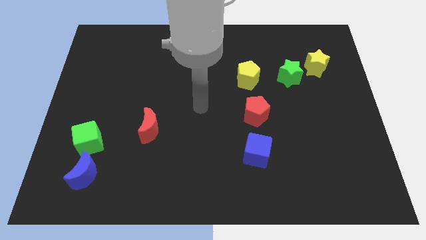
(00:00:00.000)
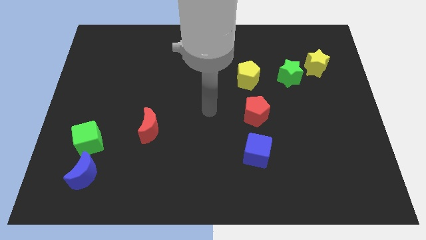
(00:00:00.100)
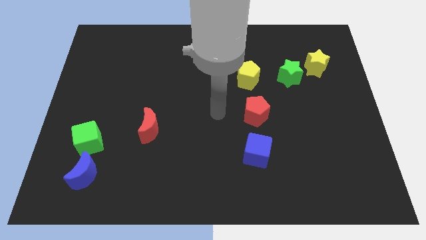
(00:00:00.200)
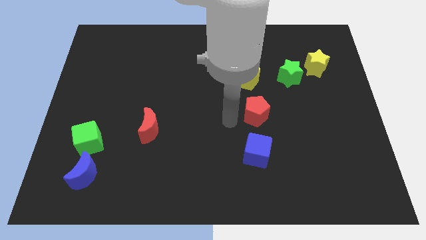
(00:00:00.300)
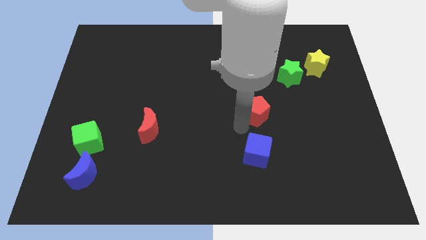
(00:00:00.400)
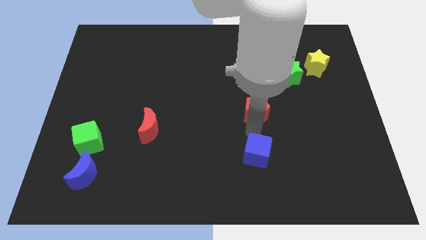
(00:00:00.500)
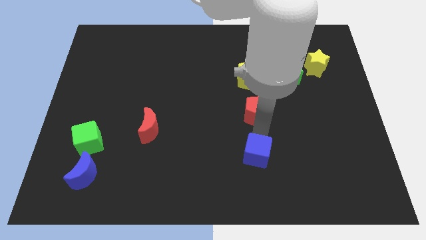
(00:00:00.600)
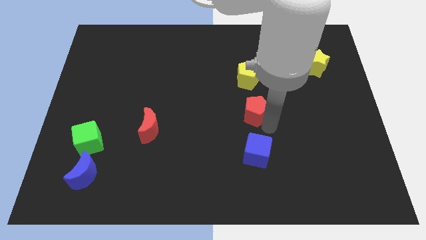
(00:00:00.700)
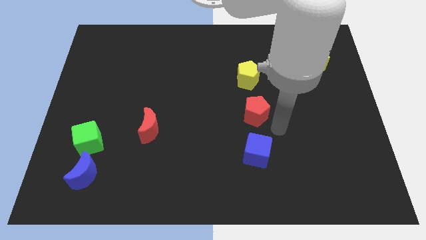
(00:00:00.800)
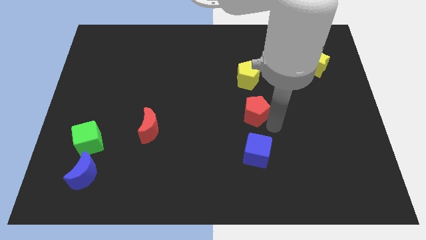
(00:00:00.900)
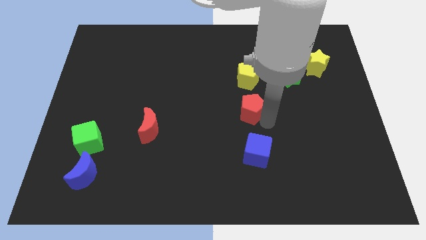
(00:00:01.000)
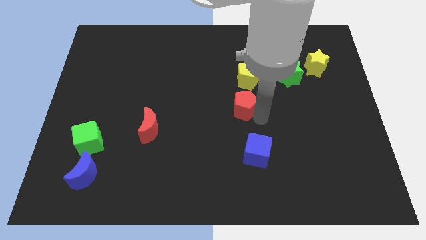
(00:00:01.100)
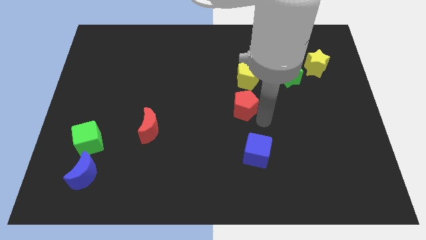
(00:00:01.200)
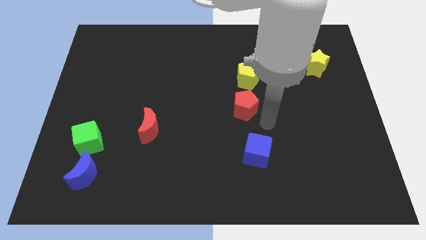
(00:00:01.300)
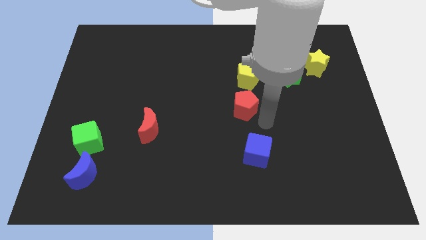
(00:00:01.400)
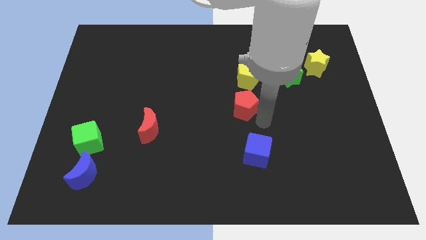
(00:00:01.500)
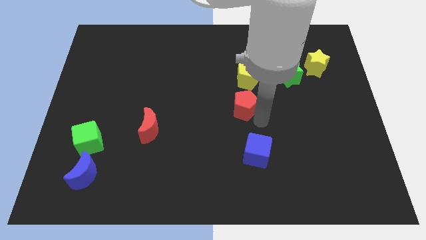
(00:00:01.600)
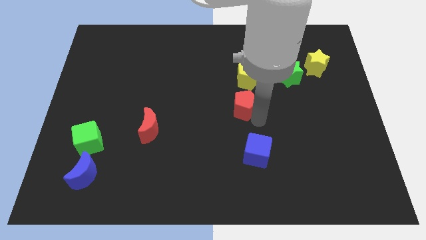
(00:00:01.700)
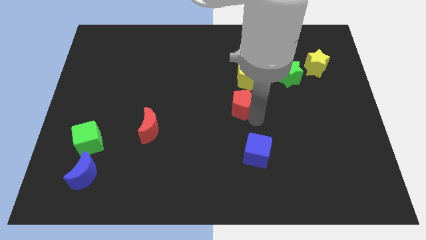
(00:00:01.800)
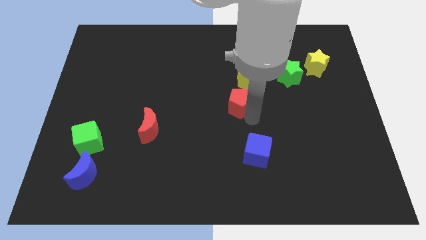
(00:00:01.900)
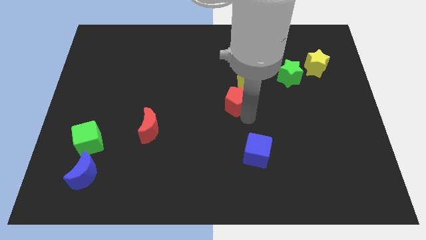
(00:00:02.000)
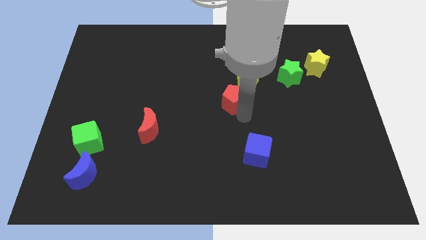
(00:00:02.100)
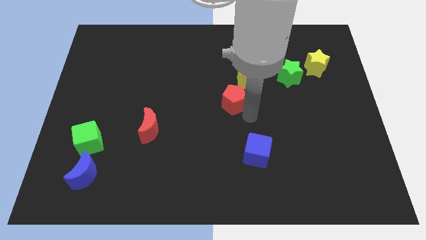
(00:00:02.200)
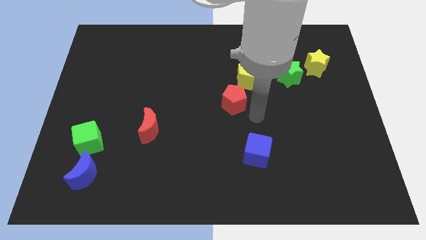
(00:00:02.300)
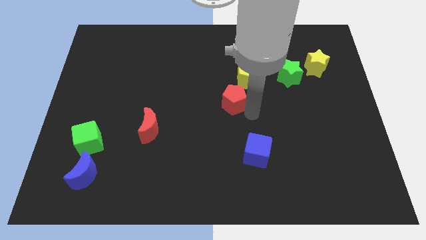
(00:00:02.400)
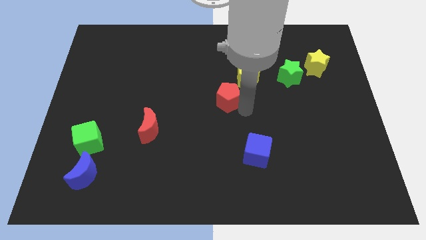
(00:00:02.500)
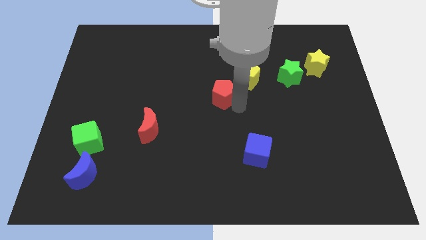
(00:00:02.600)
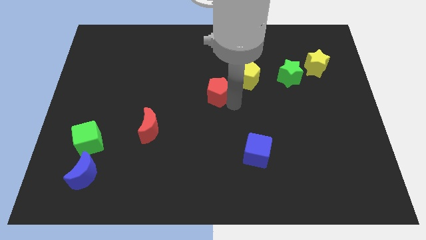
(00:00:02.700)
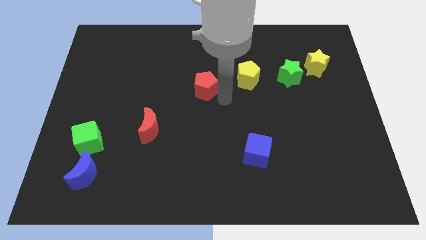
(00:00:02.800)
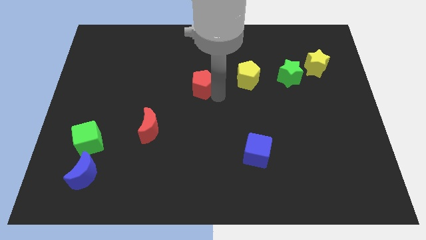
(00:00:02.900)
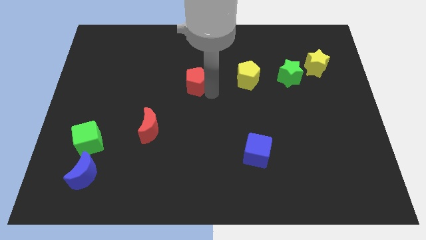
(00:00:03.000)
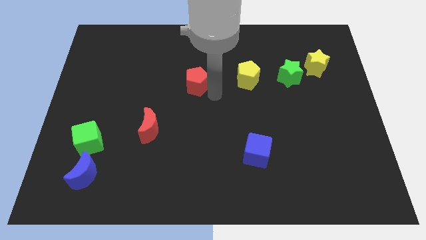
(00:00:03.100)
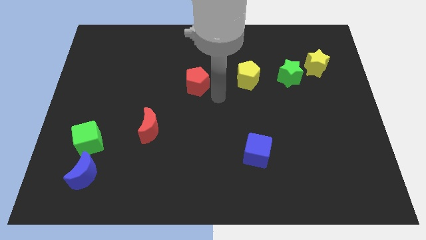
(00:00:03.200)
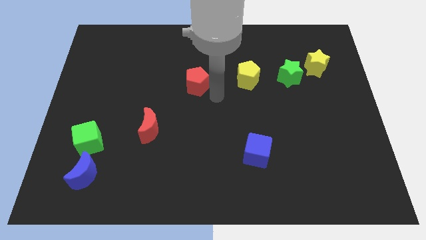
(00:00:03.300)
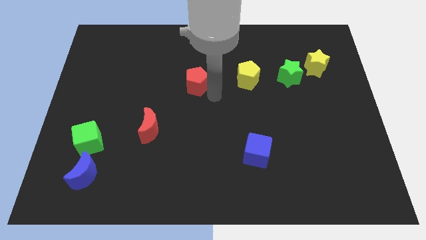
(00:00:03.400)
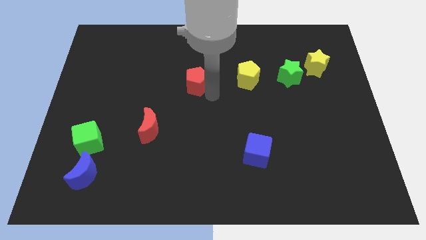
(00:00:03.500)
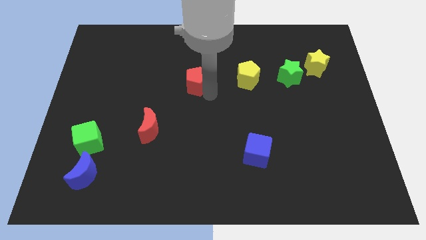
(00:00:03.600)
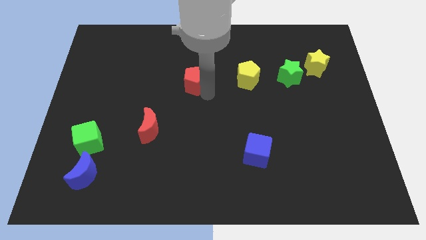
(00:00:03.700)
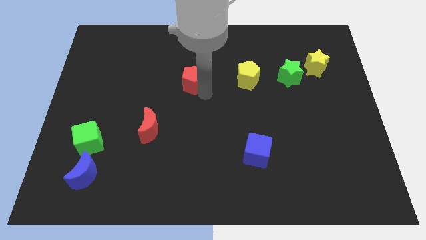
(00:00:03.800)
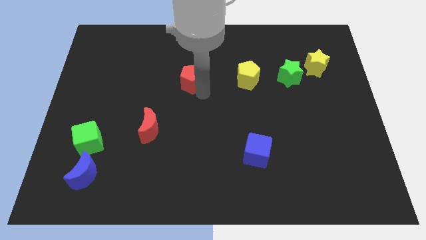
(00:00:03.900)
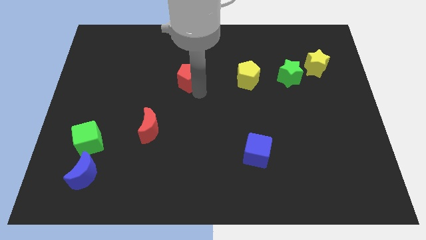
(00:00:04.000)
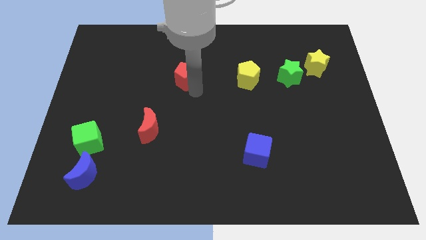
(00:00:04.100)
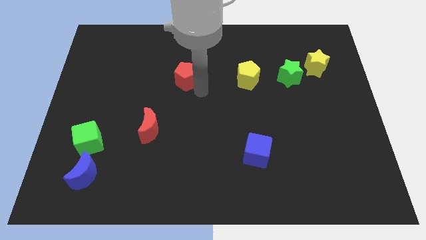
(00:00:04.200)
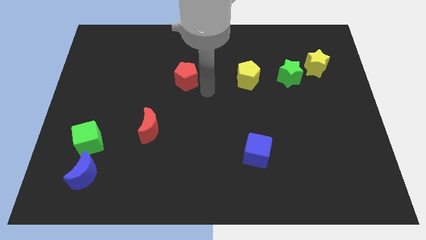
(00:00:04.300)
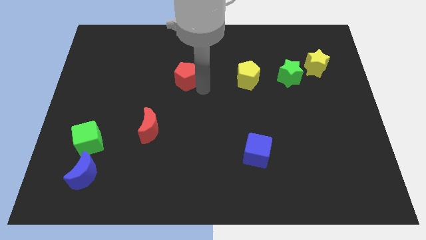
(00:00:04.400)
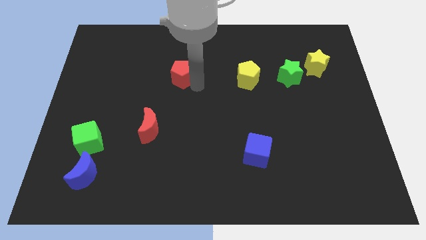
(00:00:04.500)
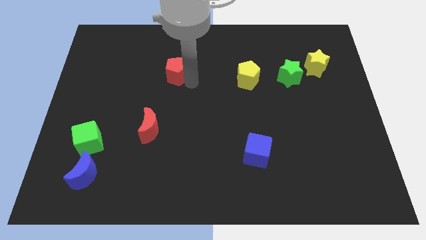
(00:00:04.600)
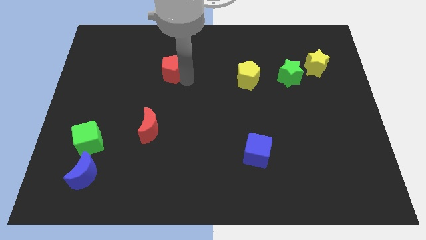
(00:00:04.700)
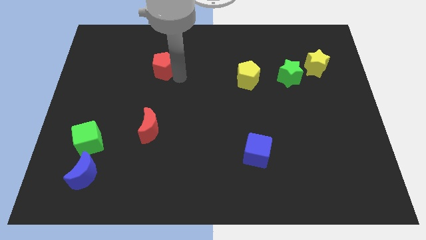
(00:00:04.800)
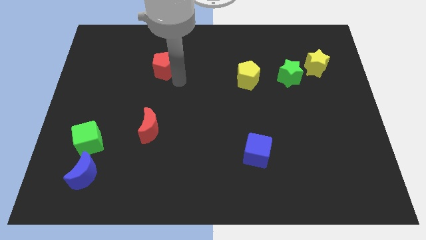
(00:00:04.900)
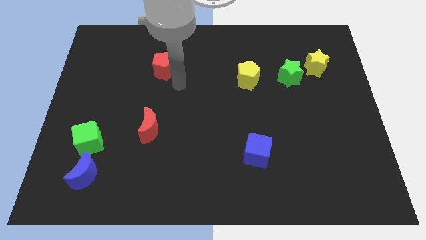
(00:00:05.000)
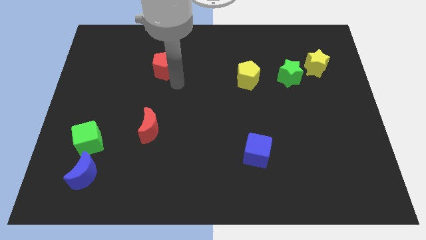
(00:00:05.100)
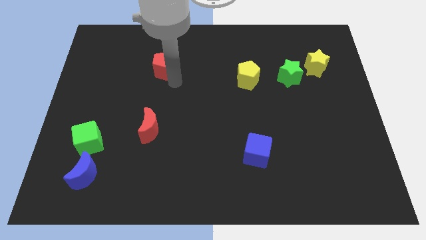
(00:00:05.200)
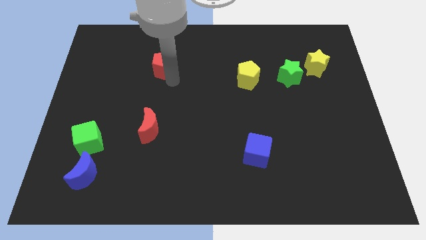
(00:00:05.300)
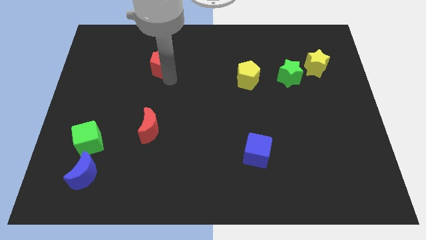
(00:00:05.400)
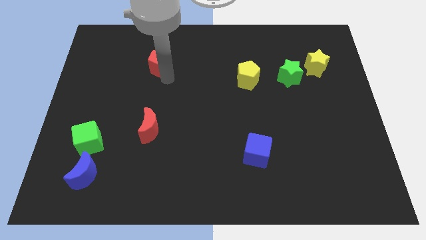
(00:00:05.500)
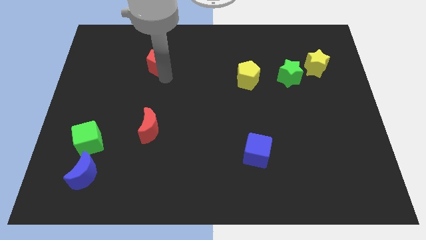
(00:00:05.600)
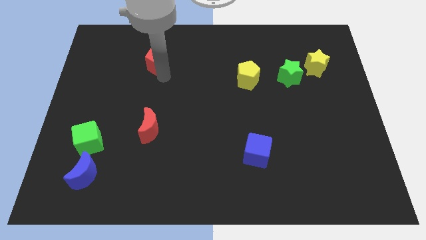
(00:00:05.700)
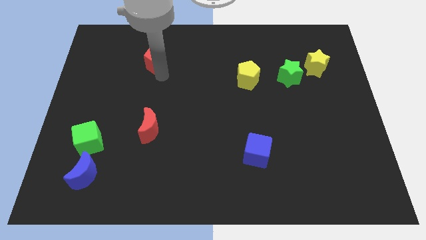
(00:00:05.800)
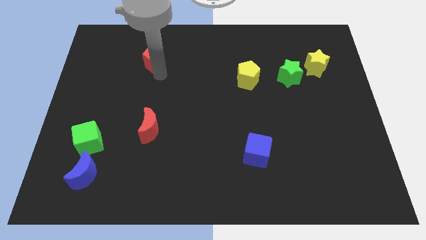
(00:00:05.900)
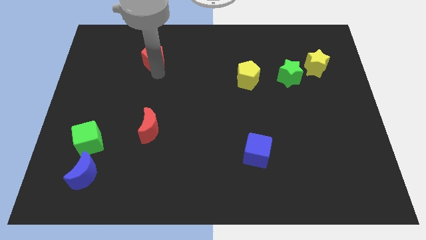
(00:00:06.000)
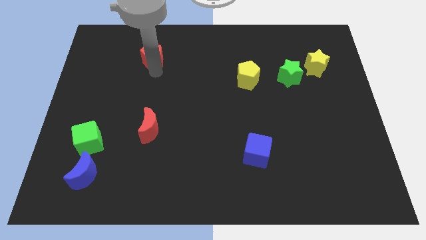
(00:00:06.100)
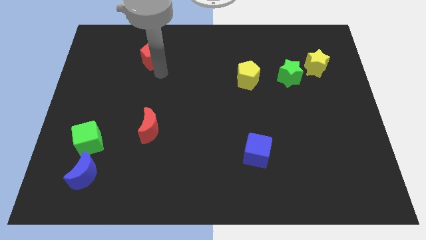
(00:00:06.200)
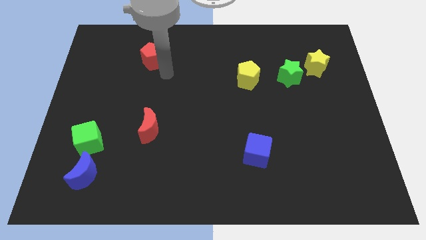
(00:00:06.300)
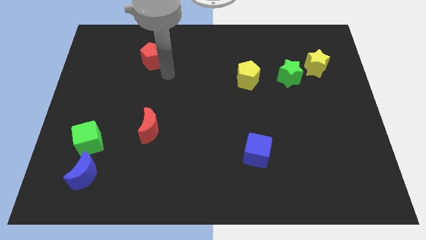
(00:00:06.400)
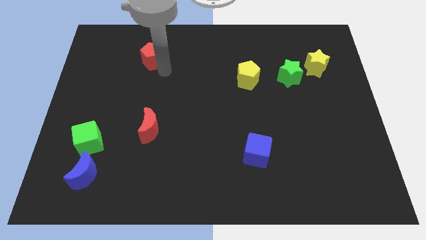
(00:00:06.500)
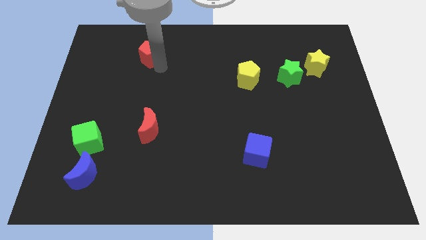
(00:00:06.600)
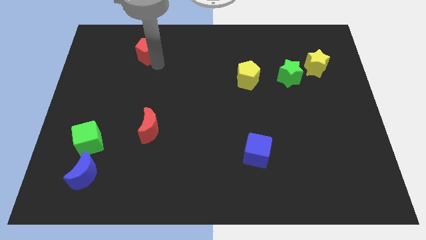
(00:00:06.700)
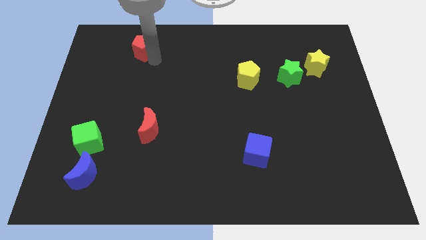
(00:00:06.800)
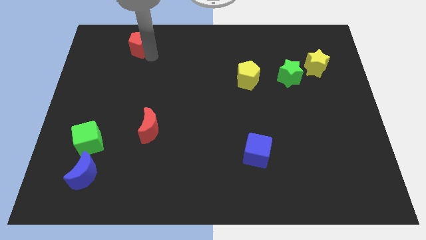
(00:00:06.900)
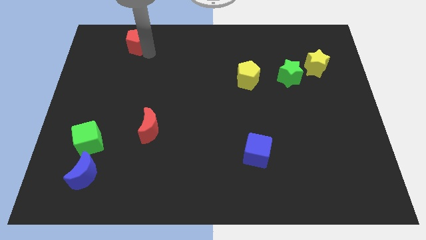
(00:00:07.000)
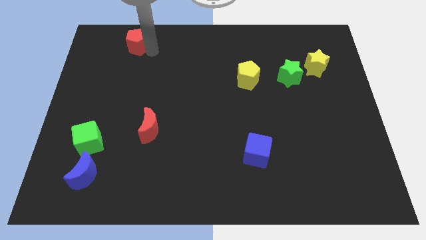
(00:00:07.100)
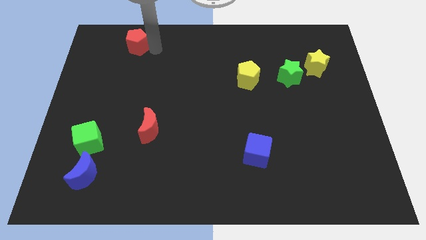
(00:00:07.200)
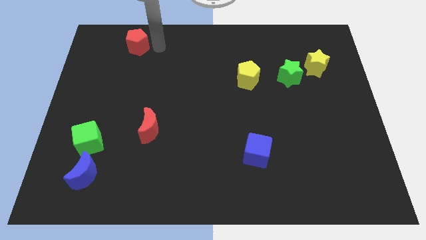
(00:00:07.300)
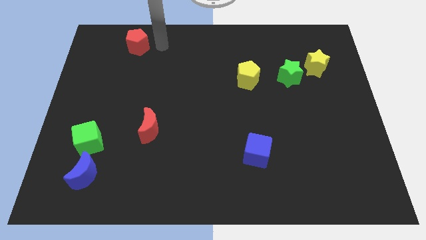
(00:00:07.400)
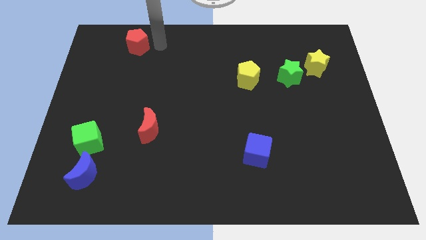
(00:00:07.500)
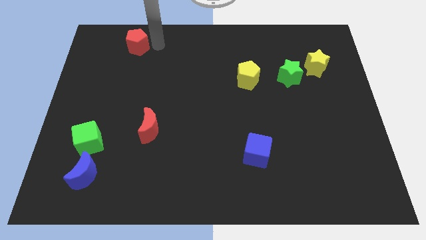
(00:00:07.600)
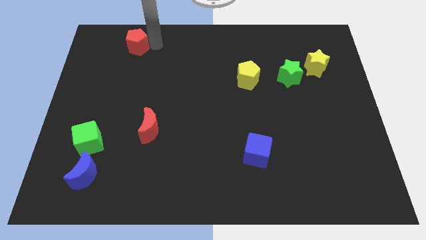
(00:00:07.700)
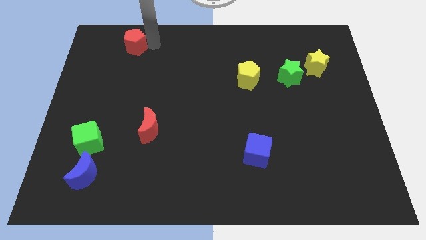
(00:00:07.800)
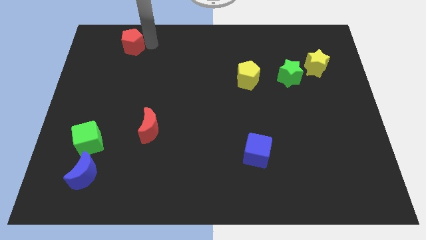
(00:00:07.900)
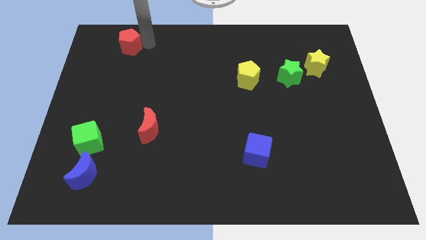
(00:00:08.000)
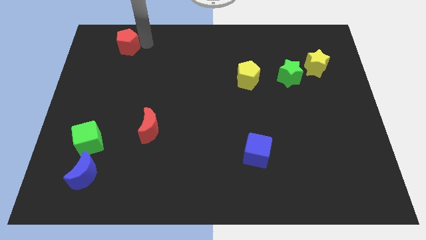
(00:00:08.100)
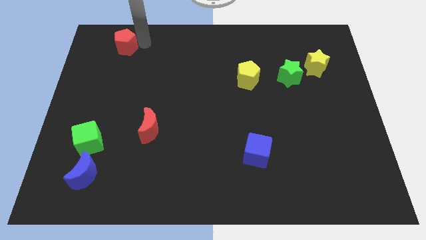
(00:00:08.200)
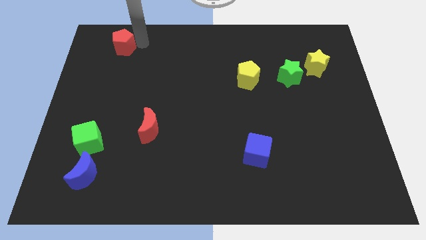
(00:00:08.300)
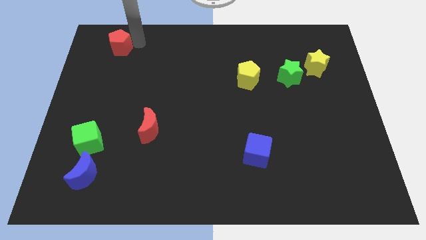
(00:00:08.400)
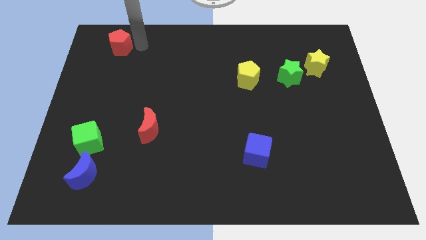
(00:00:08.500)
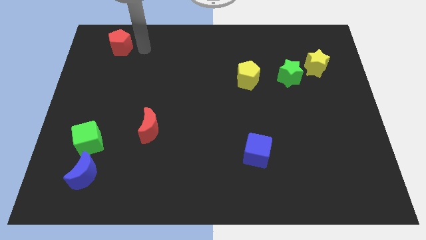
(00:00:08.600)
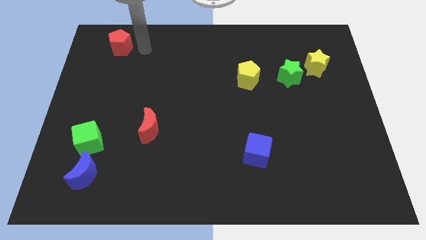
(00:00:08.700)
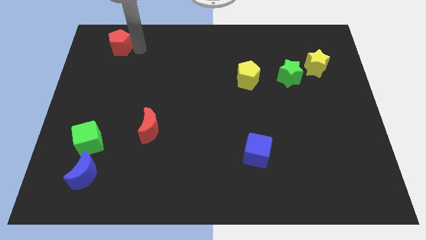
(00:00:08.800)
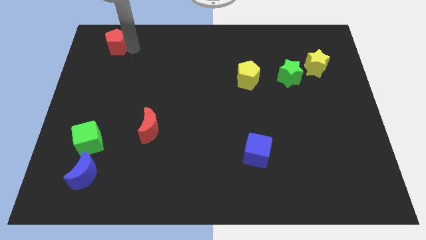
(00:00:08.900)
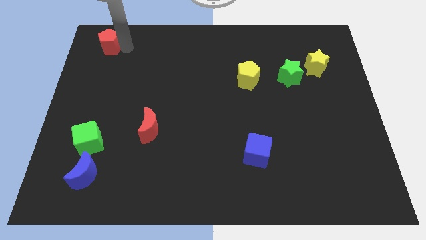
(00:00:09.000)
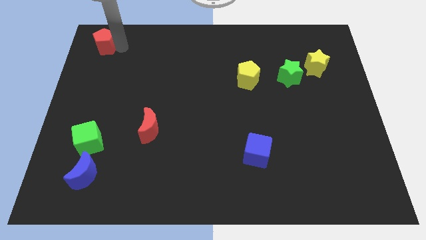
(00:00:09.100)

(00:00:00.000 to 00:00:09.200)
put the red pentagon to the upper left corner
